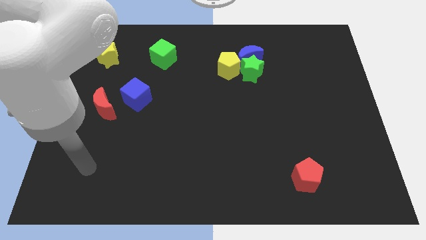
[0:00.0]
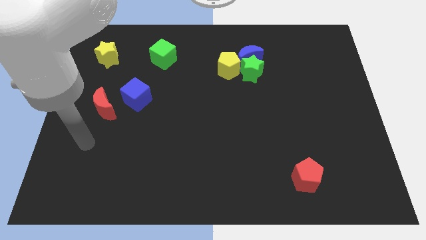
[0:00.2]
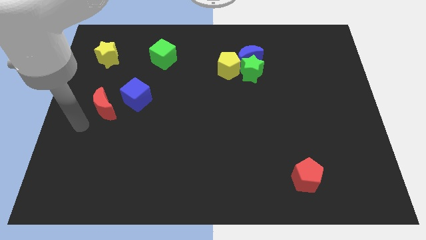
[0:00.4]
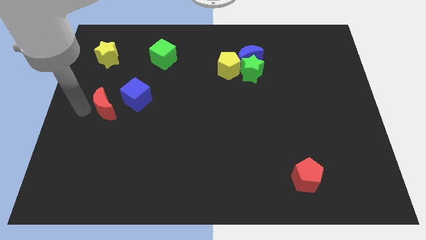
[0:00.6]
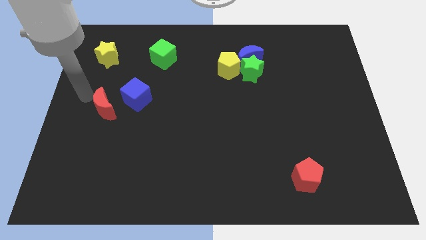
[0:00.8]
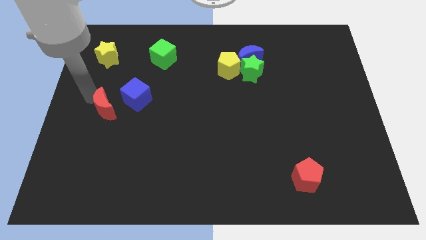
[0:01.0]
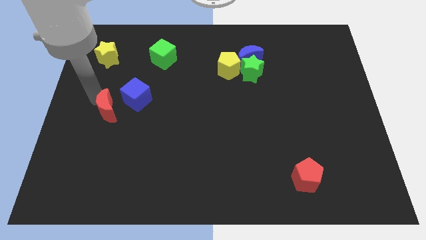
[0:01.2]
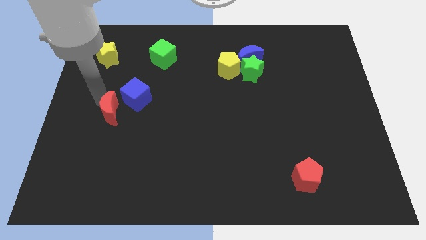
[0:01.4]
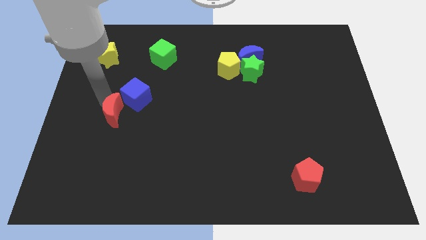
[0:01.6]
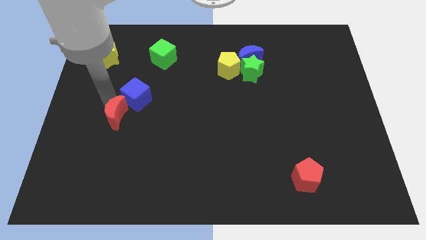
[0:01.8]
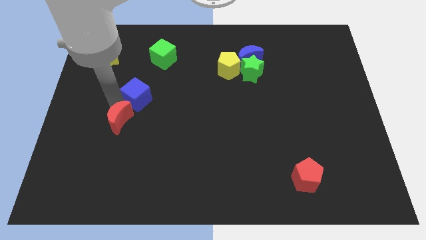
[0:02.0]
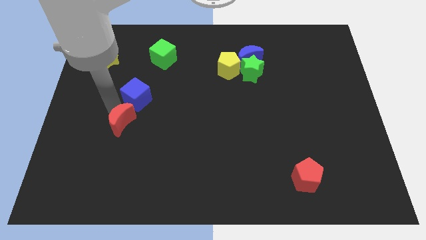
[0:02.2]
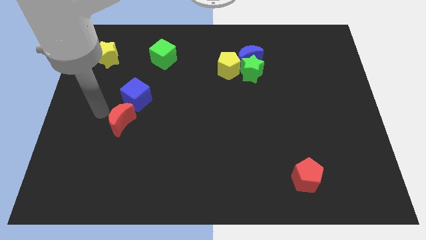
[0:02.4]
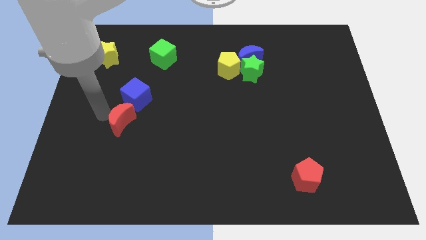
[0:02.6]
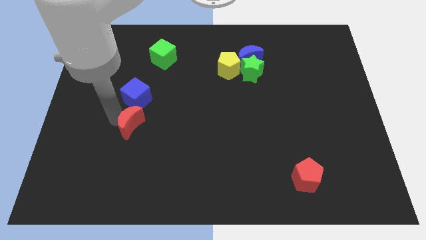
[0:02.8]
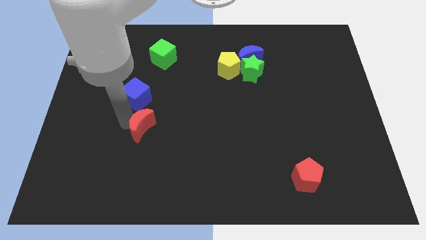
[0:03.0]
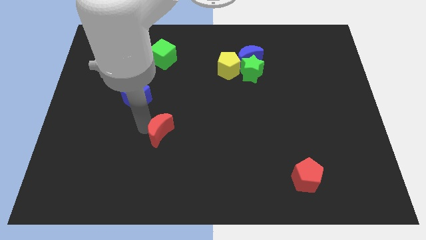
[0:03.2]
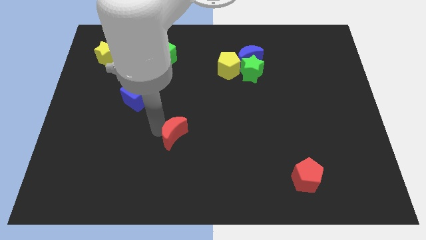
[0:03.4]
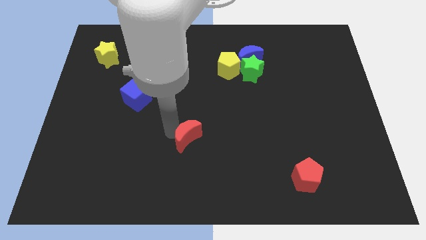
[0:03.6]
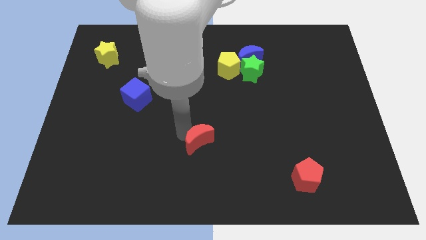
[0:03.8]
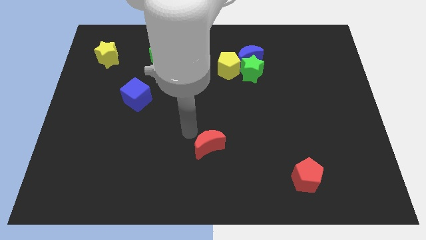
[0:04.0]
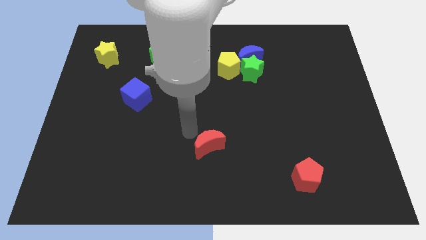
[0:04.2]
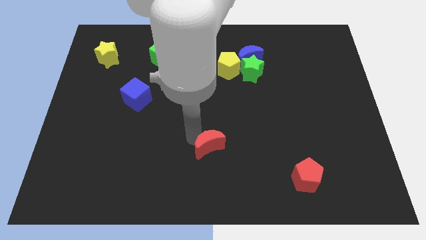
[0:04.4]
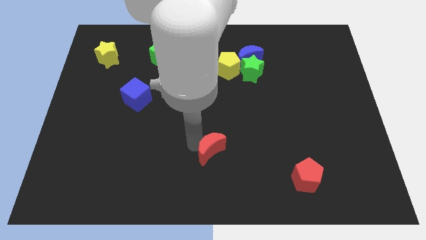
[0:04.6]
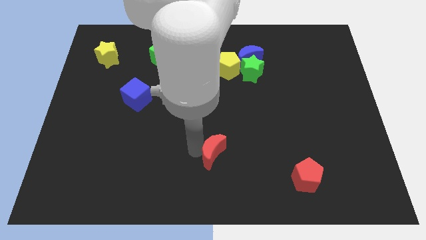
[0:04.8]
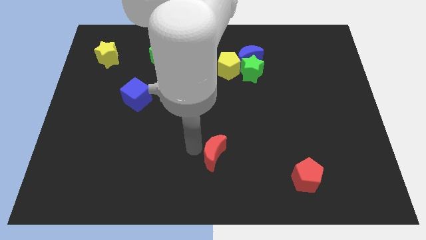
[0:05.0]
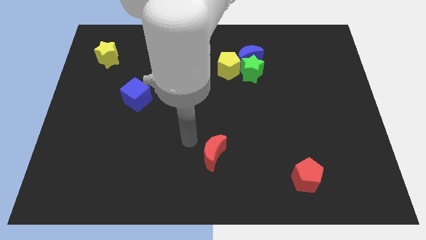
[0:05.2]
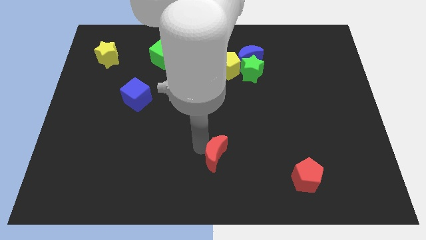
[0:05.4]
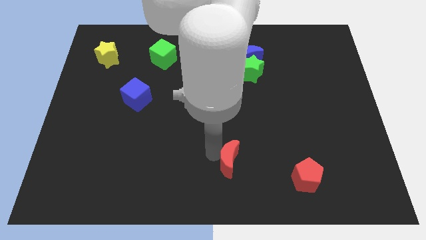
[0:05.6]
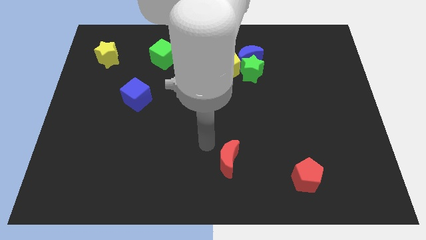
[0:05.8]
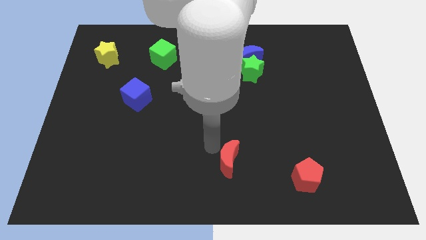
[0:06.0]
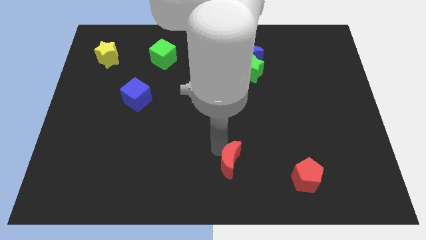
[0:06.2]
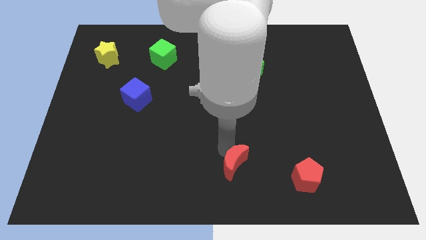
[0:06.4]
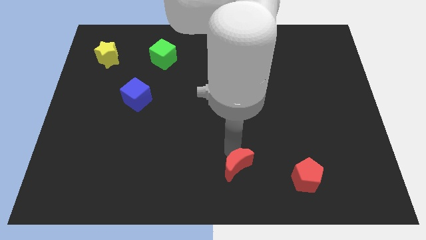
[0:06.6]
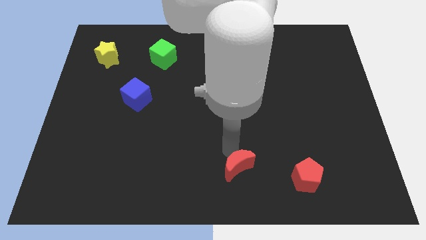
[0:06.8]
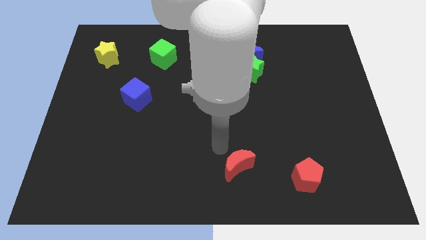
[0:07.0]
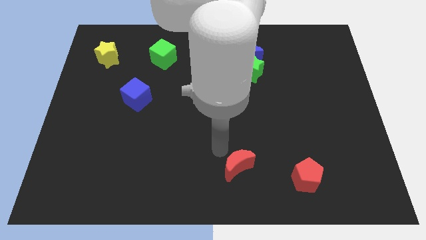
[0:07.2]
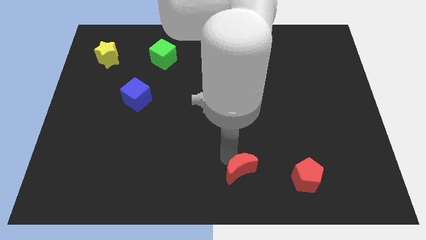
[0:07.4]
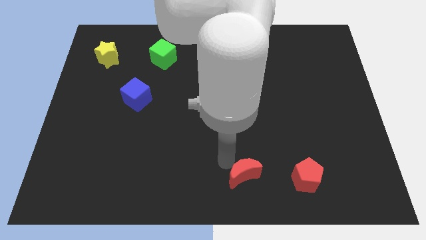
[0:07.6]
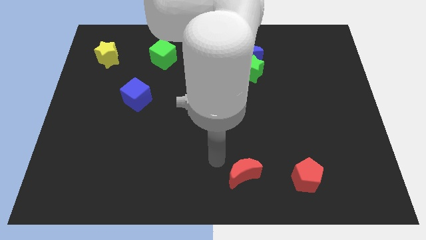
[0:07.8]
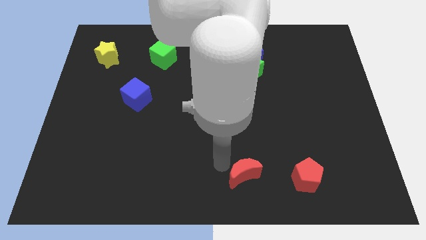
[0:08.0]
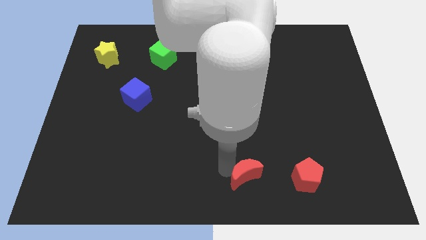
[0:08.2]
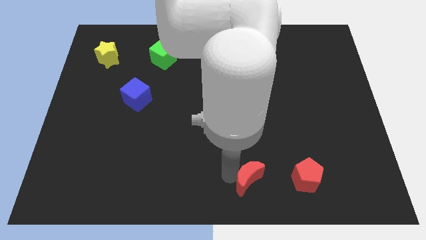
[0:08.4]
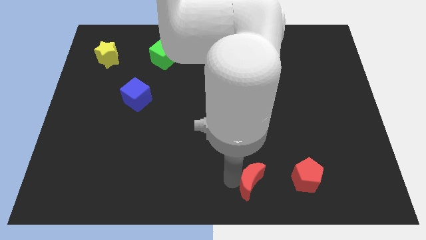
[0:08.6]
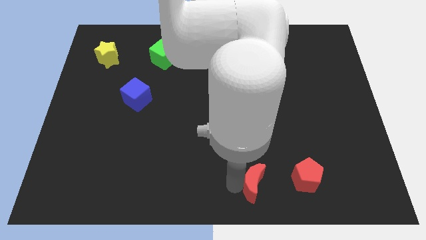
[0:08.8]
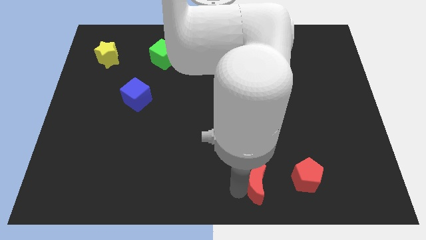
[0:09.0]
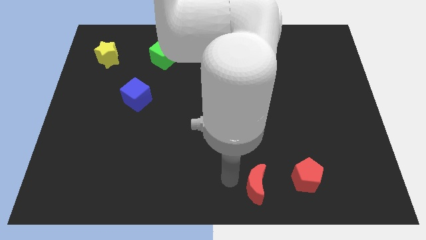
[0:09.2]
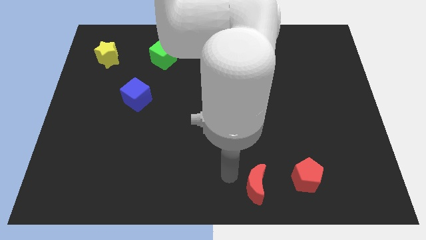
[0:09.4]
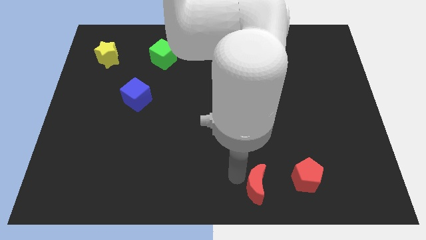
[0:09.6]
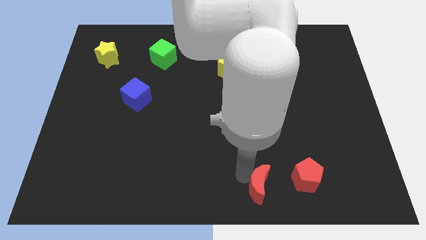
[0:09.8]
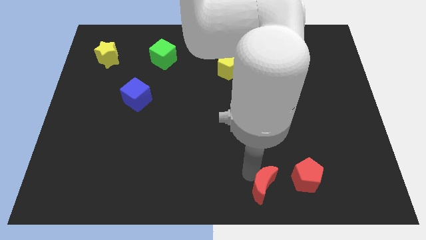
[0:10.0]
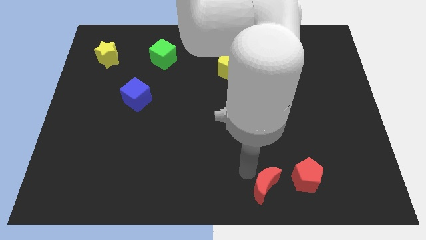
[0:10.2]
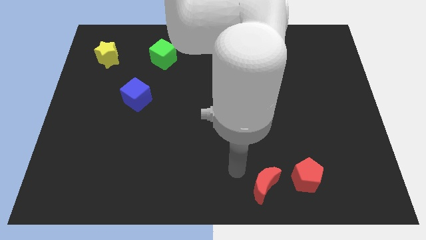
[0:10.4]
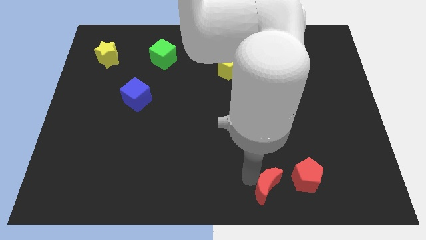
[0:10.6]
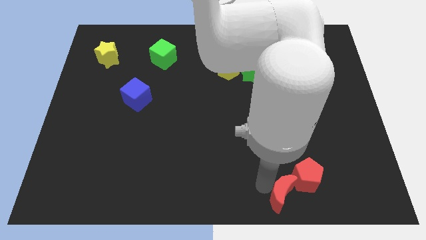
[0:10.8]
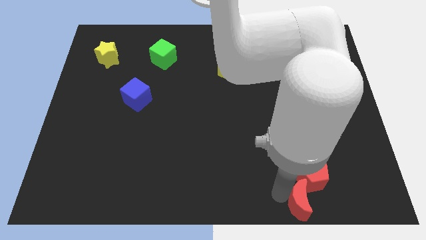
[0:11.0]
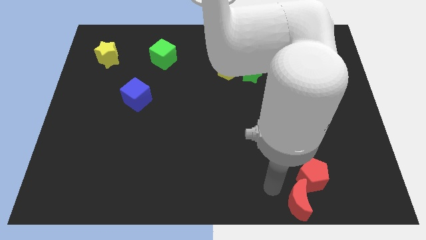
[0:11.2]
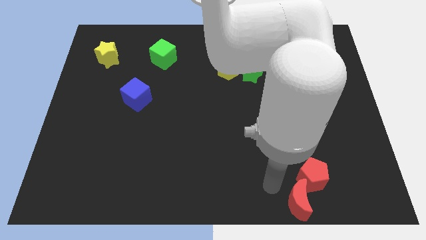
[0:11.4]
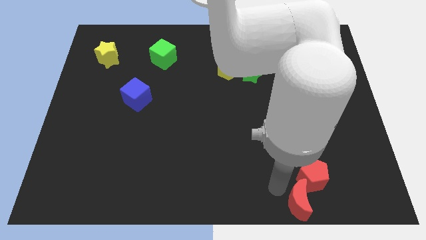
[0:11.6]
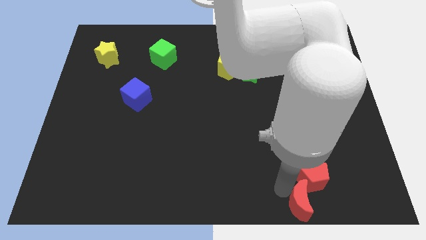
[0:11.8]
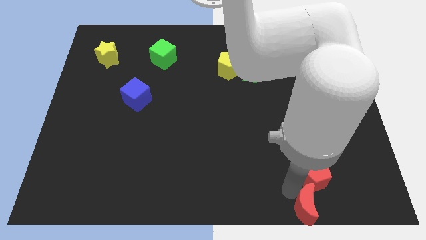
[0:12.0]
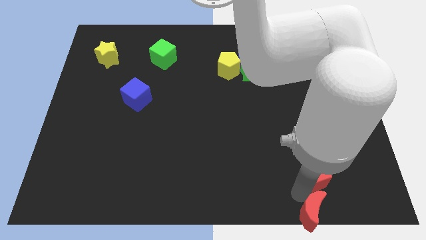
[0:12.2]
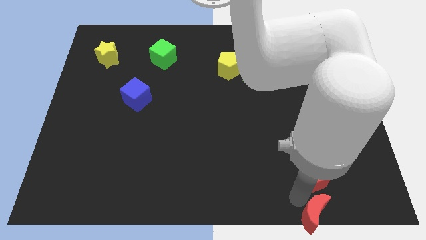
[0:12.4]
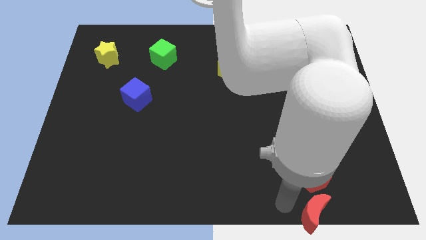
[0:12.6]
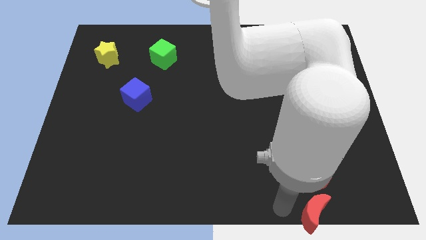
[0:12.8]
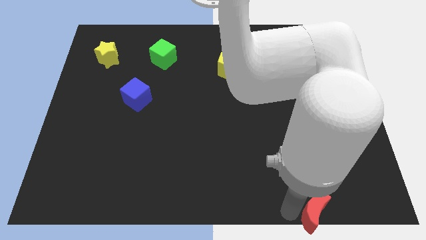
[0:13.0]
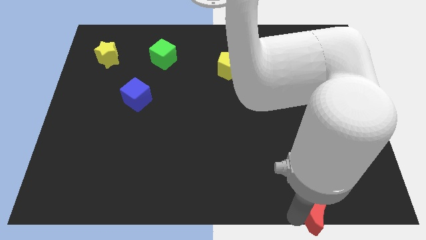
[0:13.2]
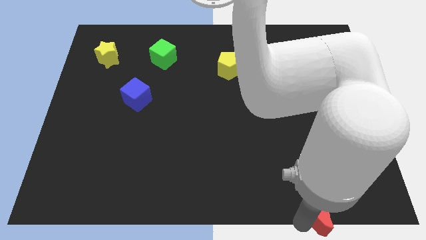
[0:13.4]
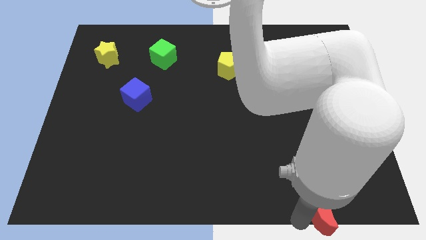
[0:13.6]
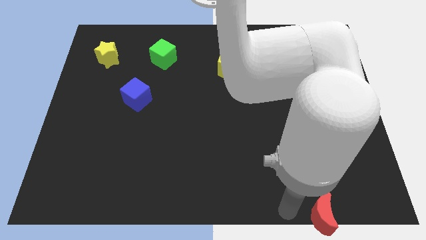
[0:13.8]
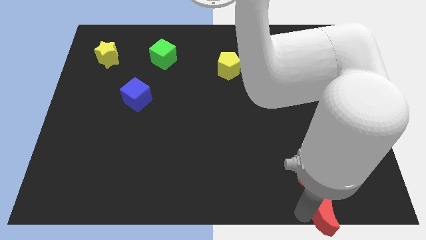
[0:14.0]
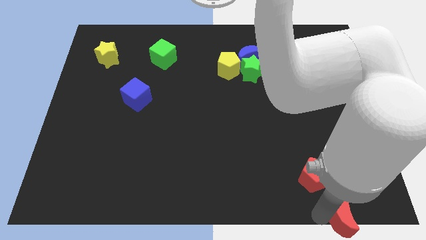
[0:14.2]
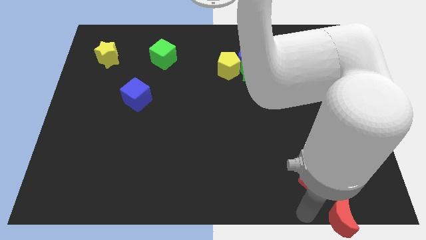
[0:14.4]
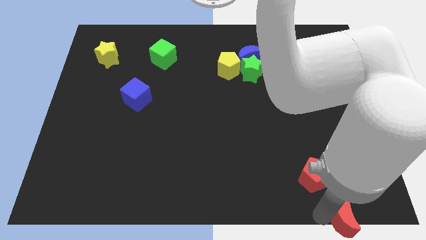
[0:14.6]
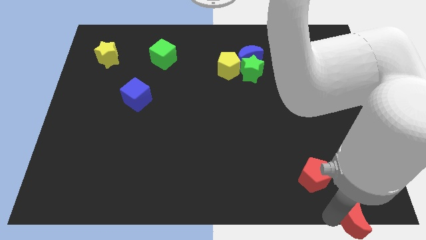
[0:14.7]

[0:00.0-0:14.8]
slide the red moon to the bottom right
